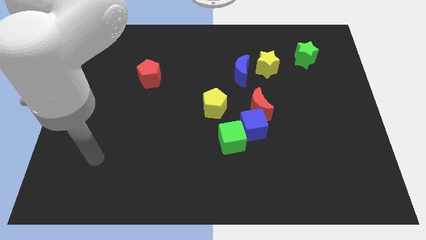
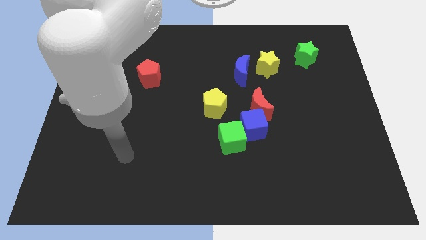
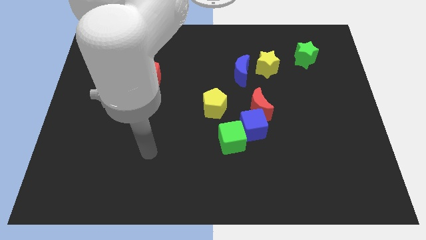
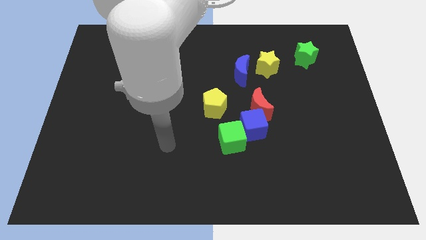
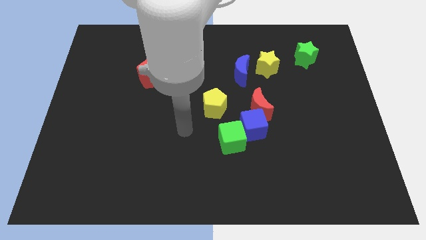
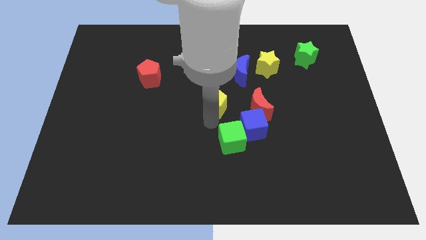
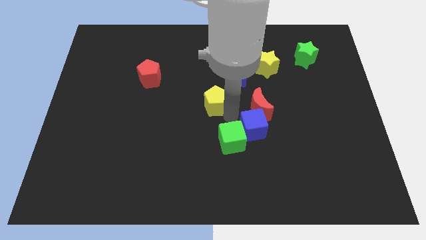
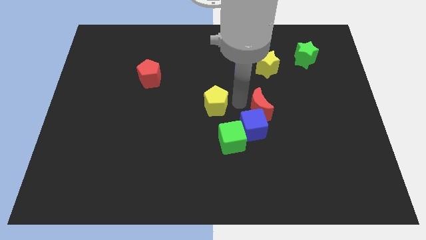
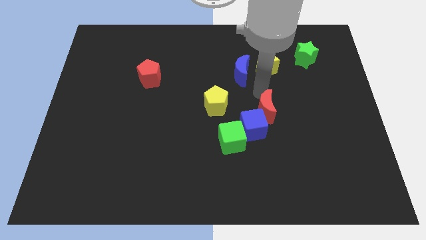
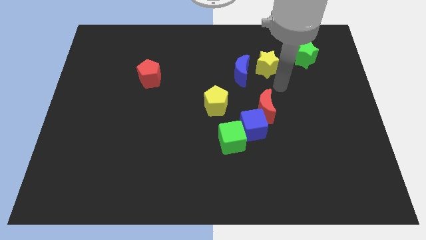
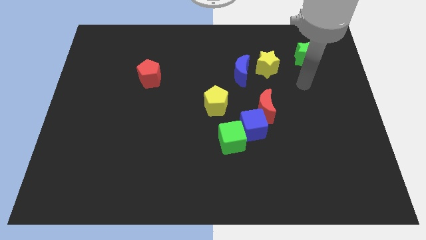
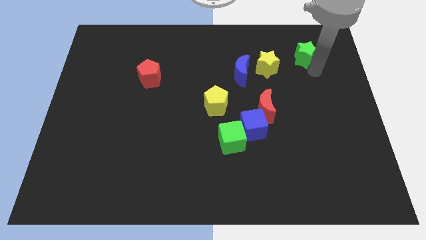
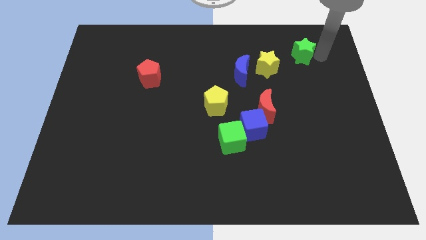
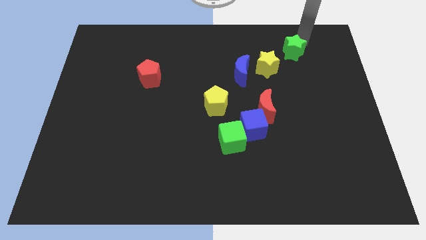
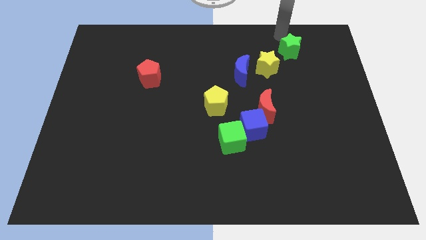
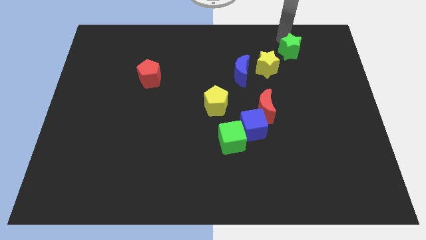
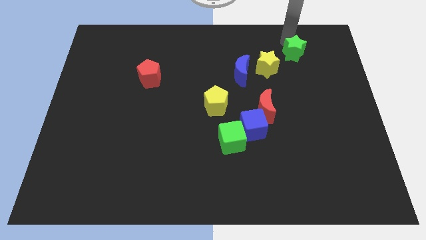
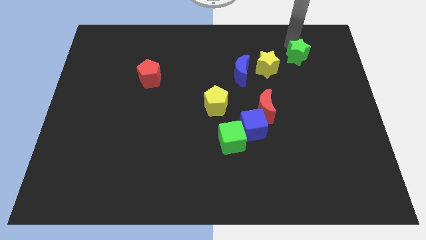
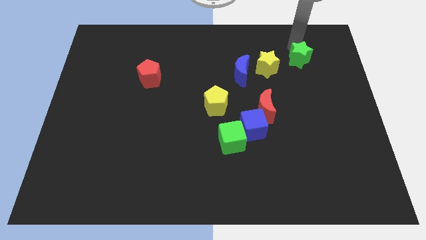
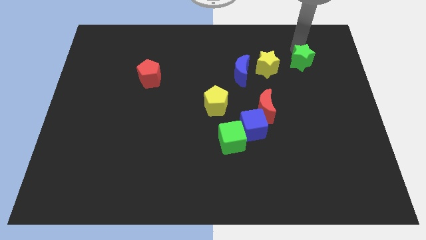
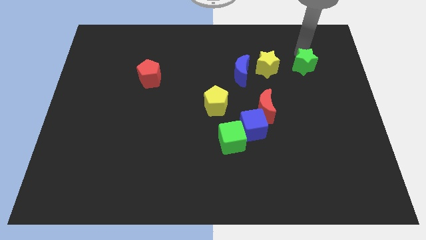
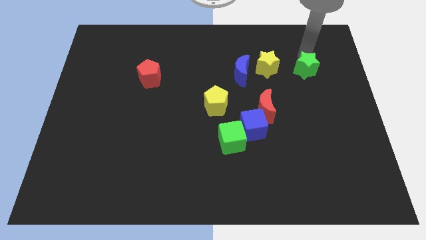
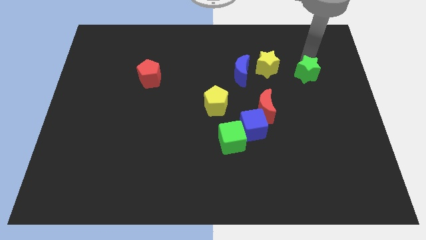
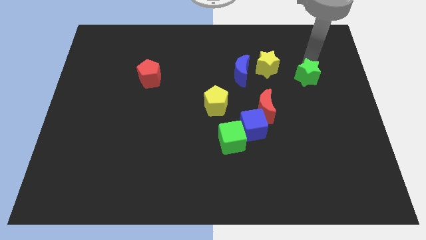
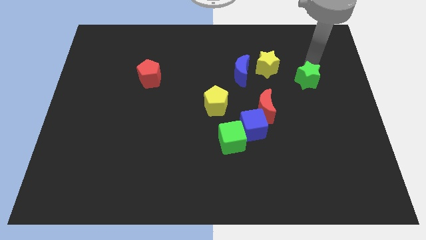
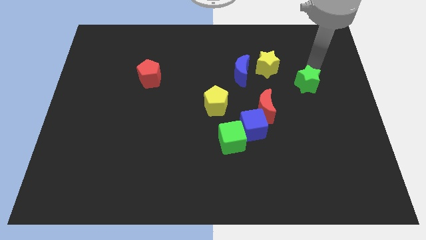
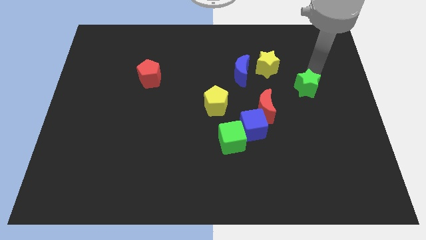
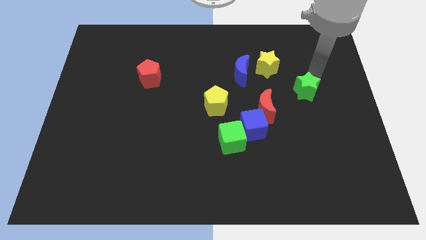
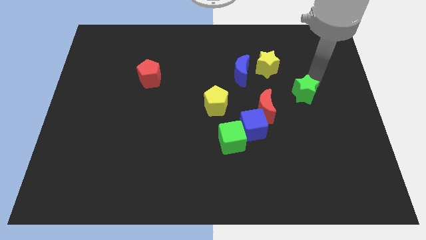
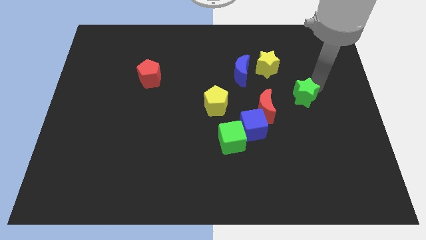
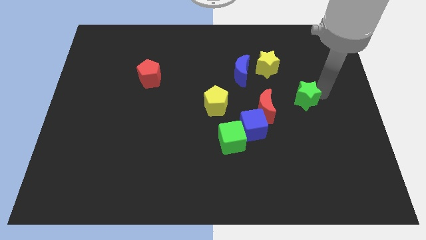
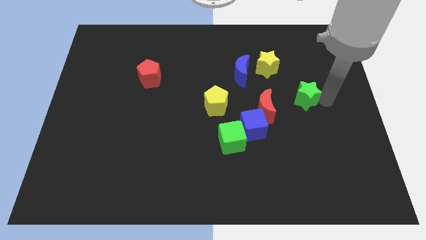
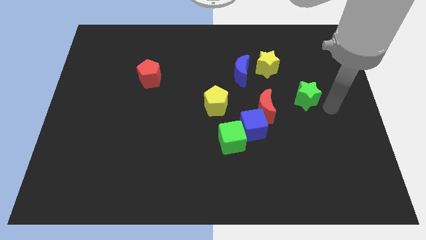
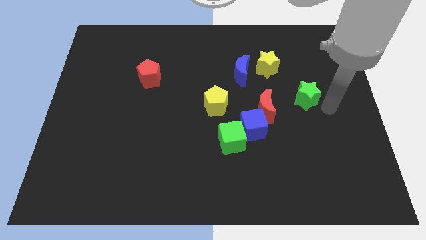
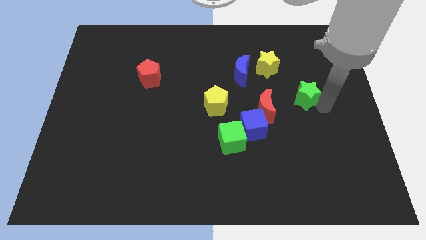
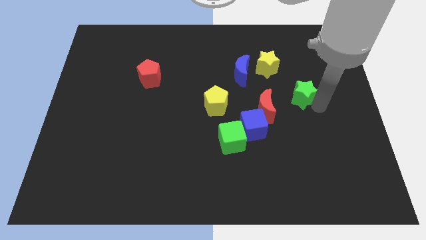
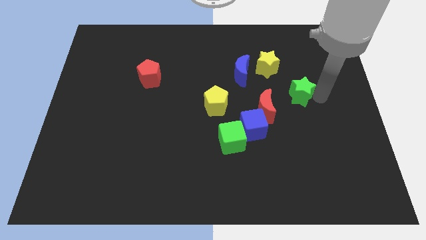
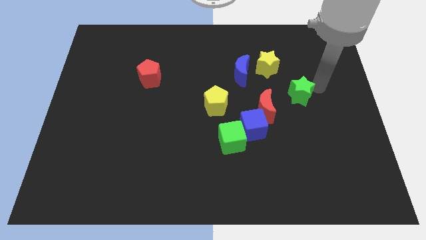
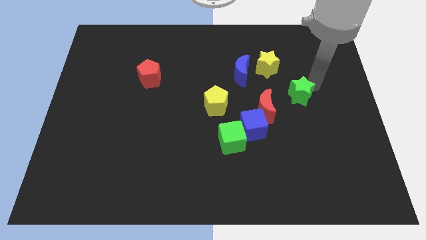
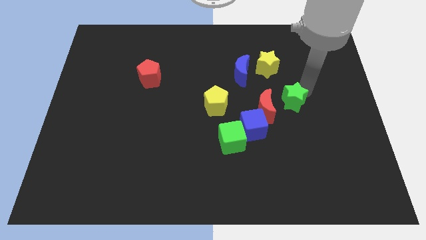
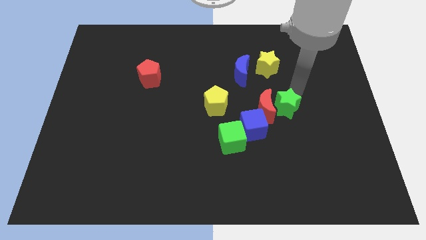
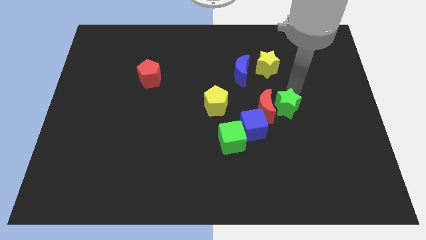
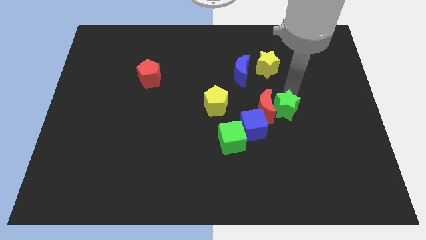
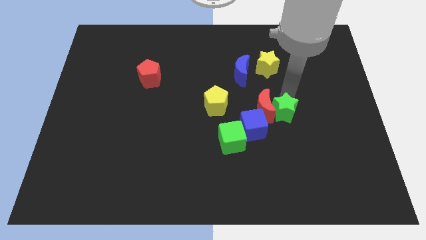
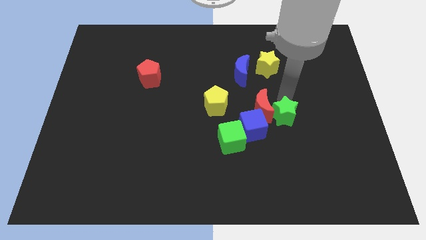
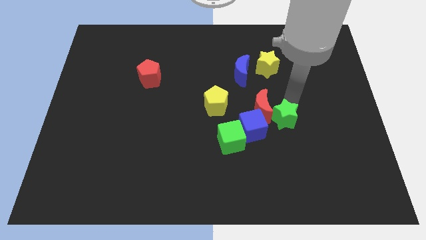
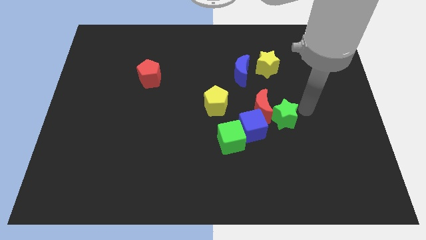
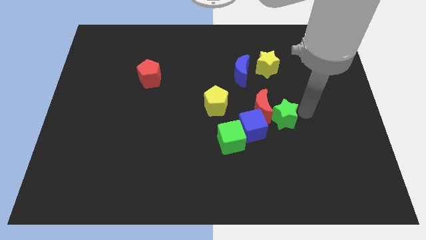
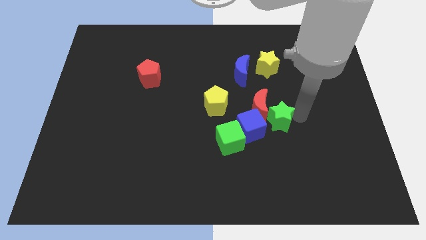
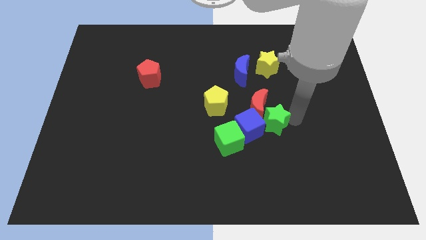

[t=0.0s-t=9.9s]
move the green star next to the blue cube

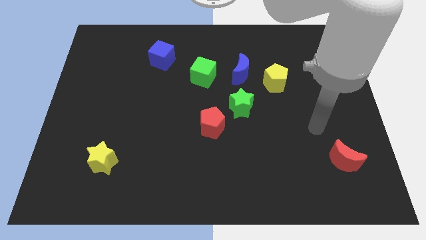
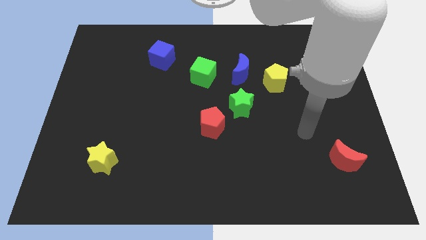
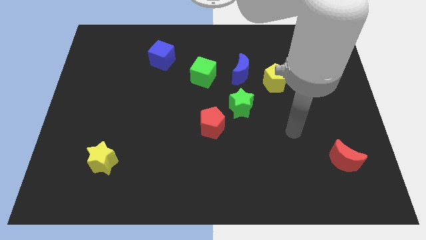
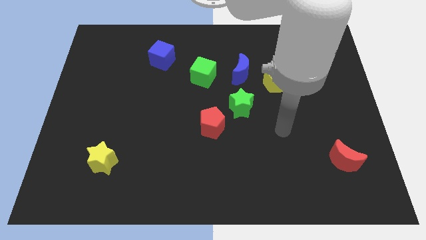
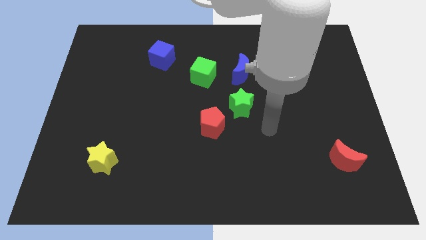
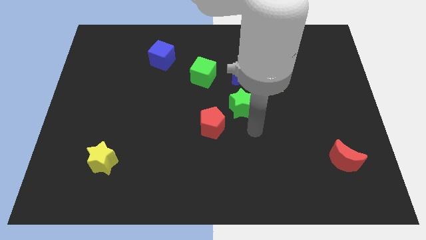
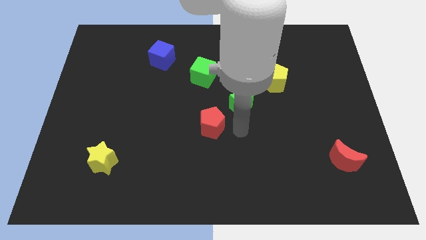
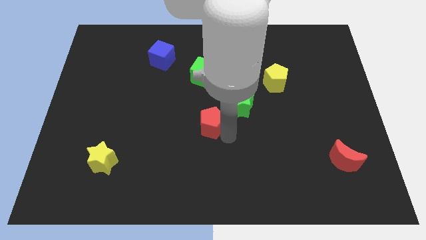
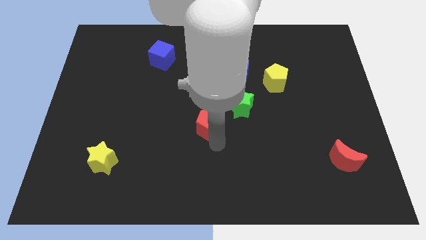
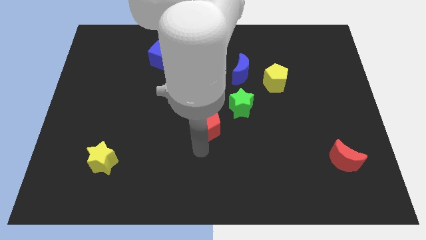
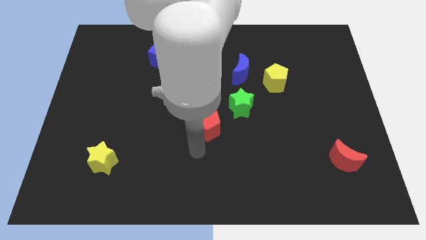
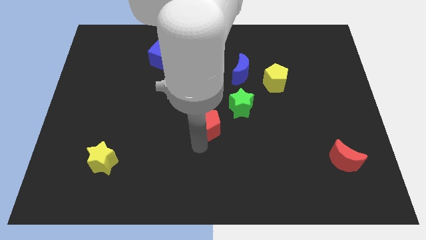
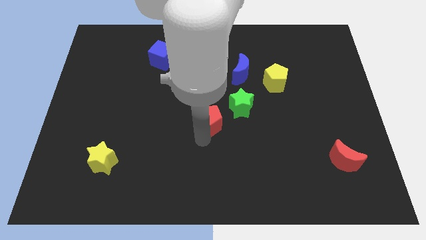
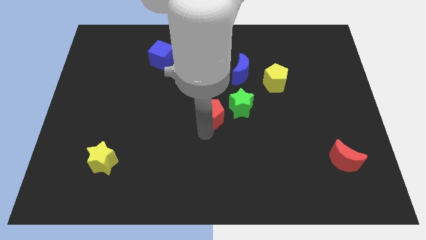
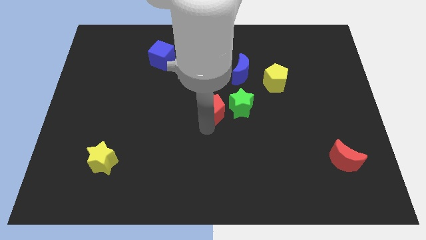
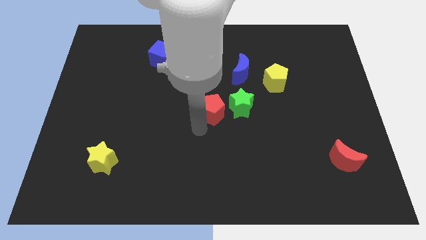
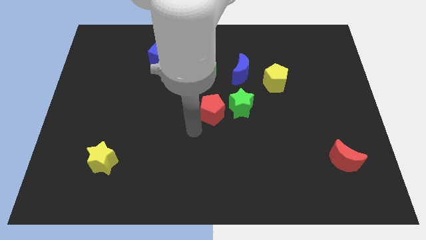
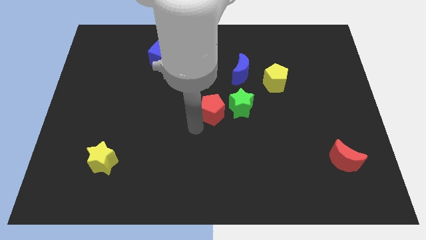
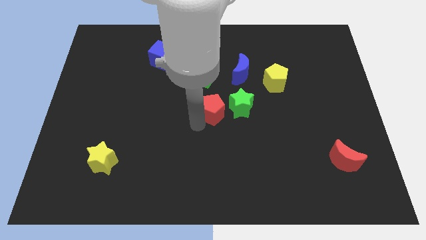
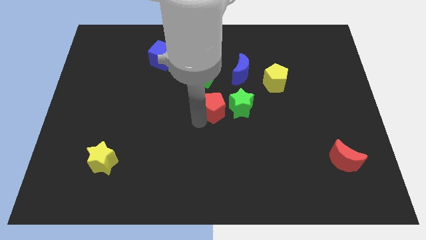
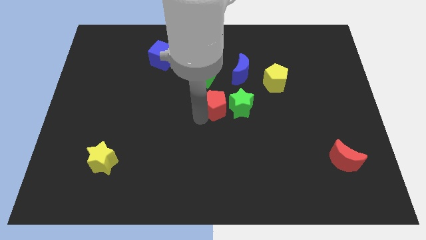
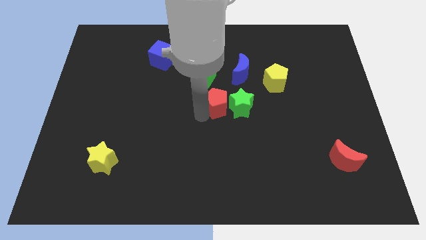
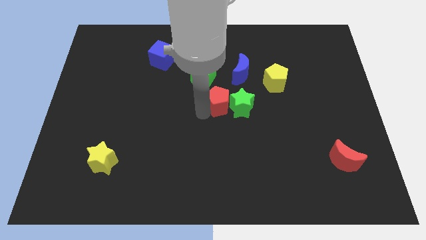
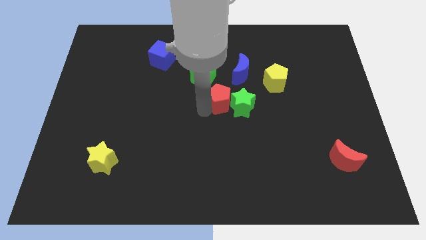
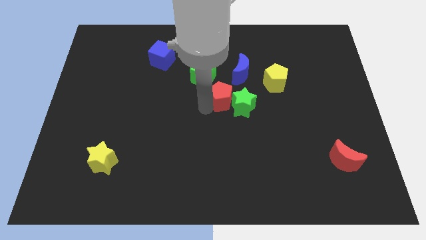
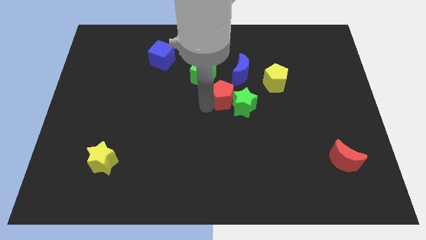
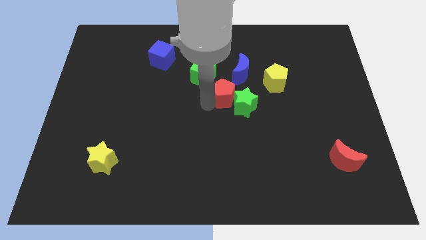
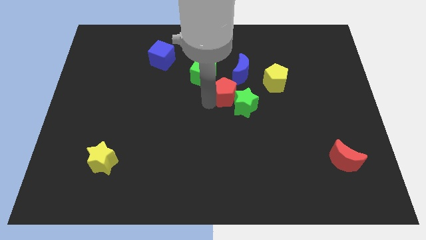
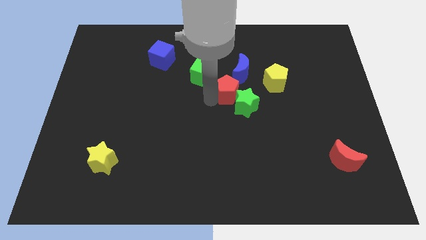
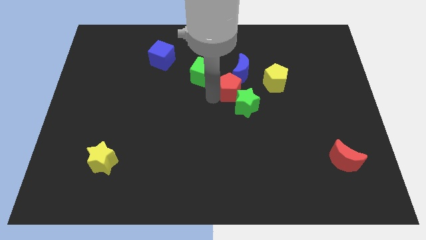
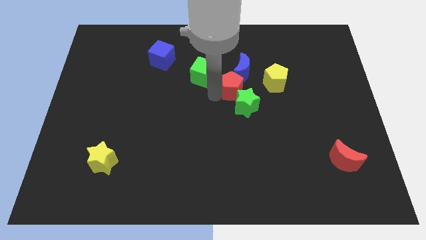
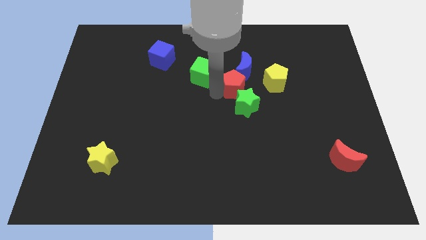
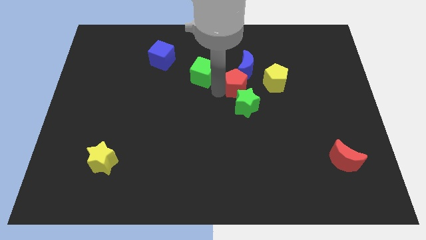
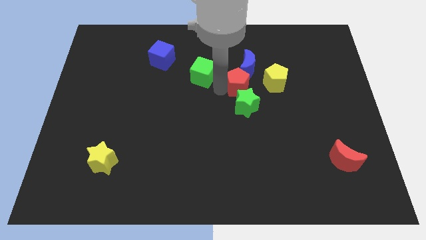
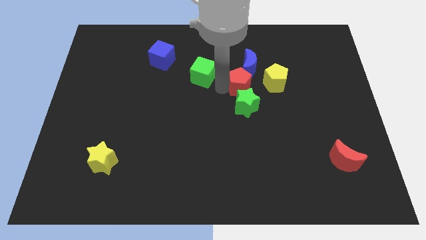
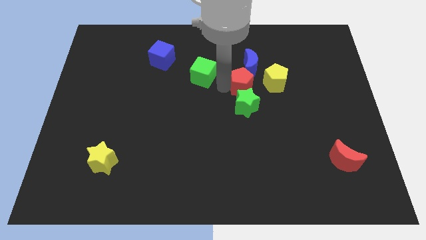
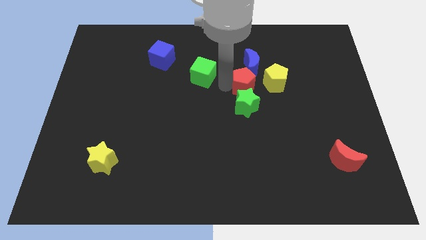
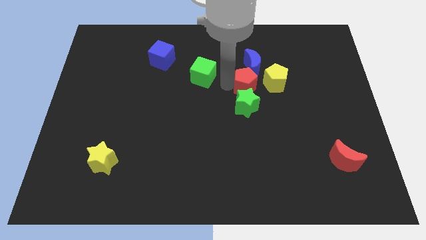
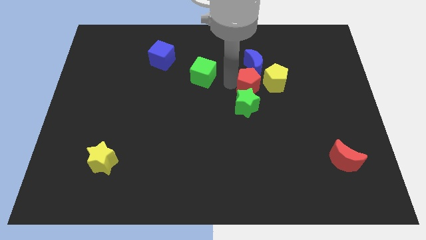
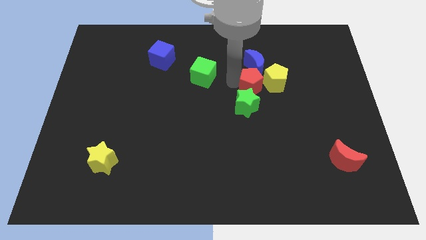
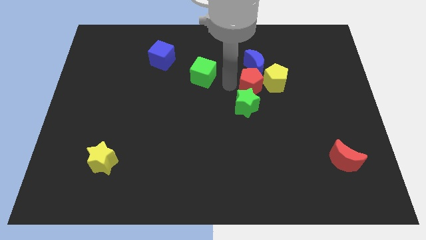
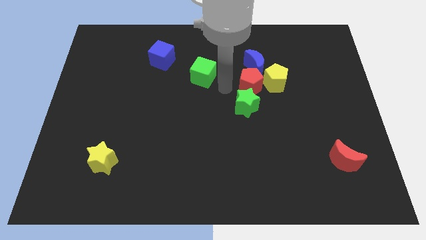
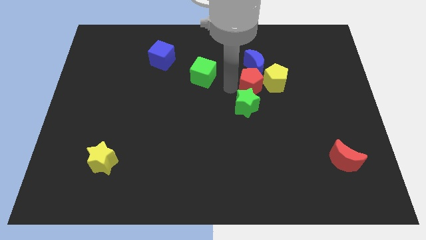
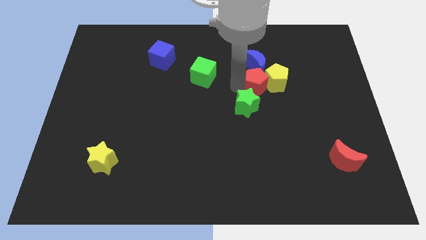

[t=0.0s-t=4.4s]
slide the red pentagon close to the yellow pentagon
